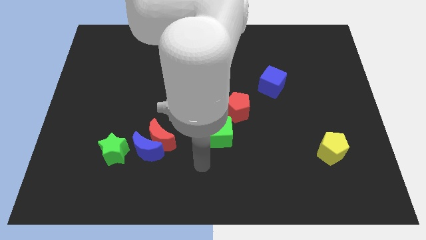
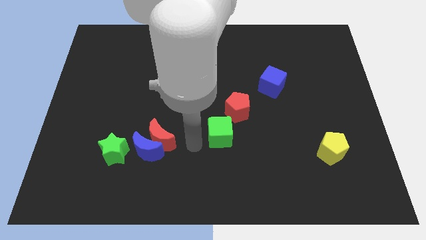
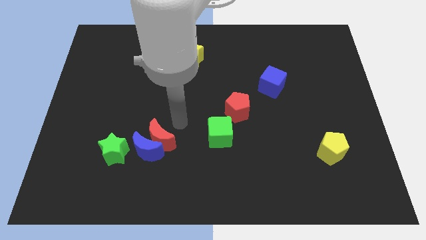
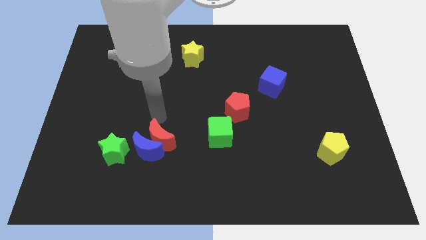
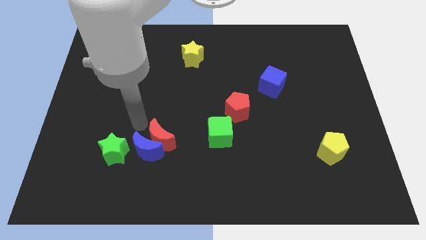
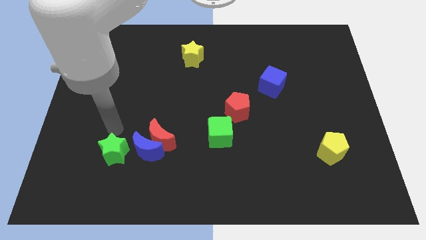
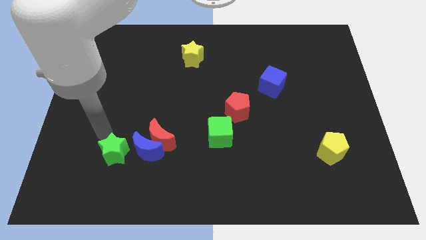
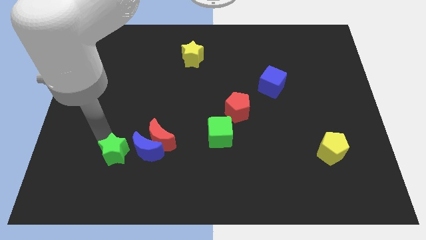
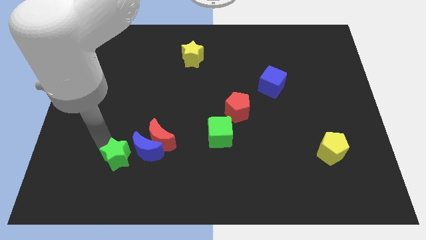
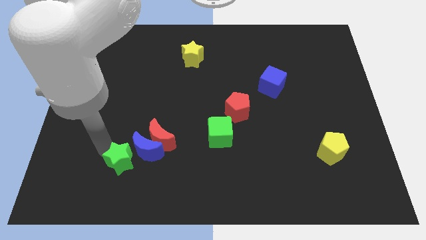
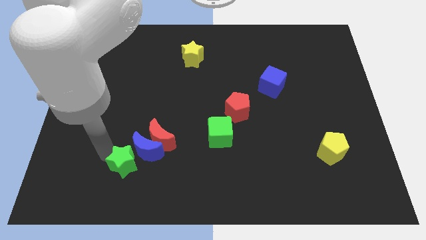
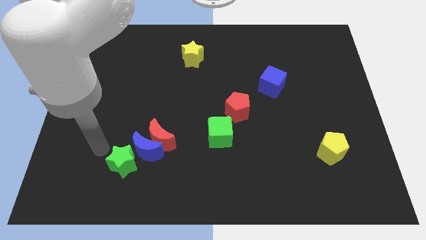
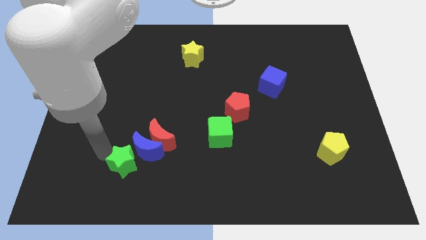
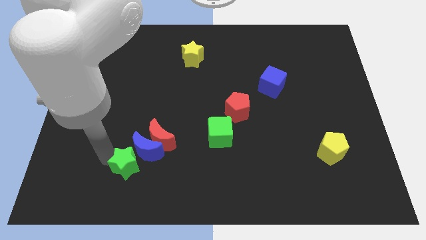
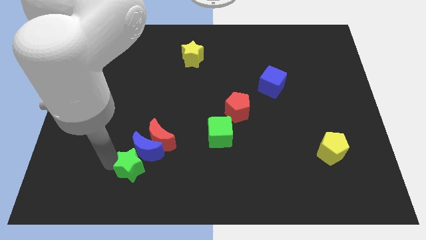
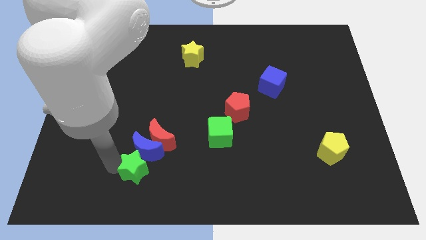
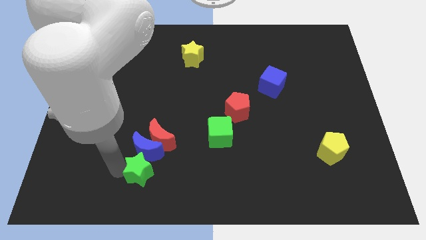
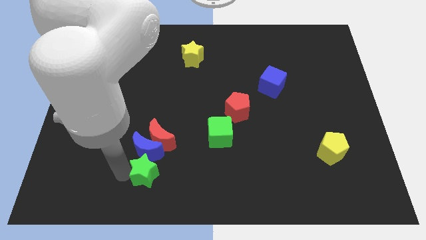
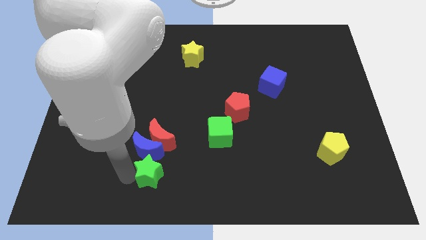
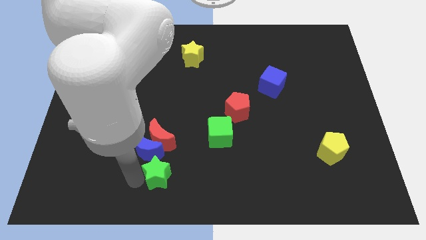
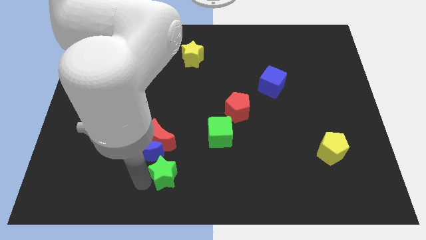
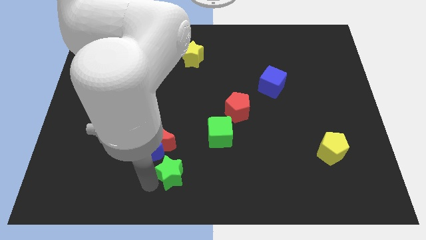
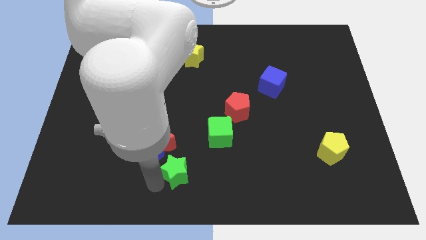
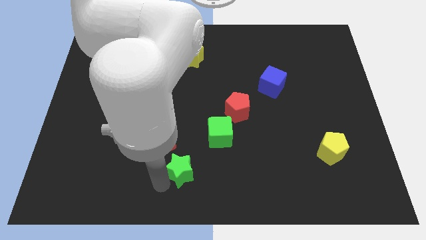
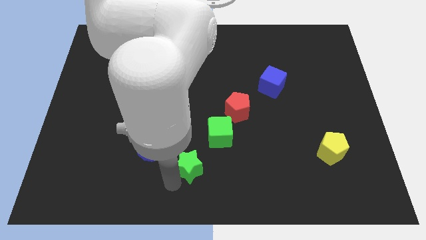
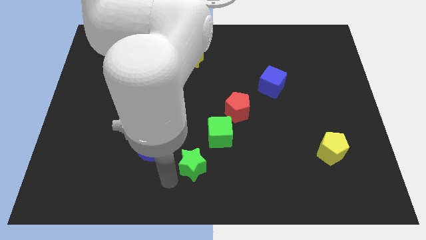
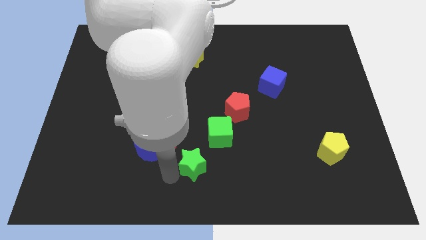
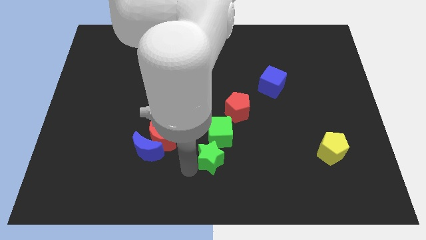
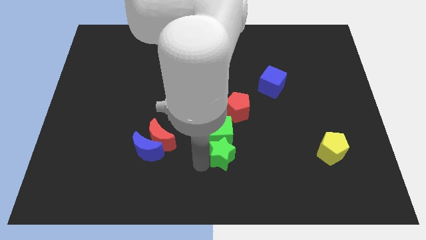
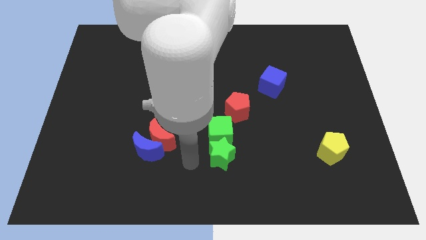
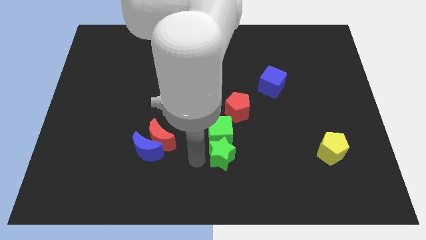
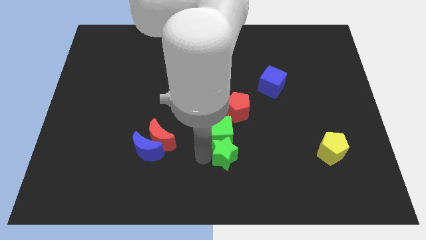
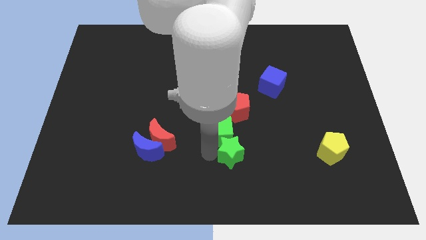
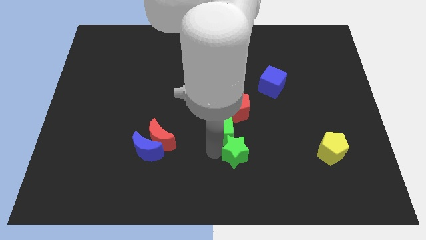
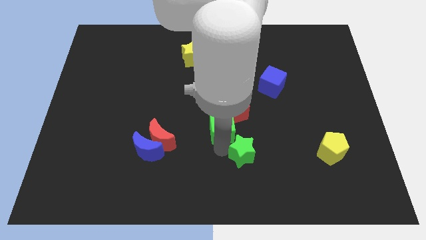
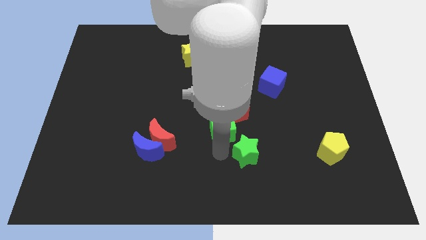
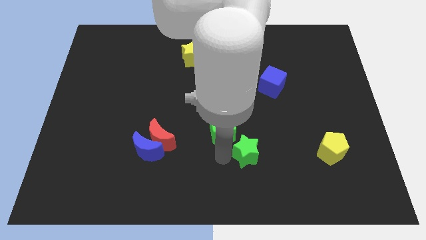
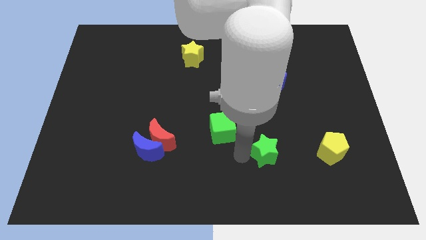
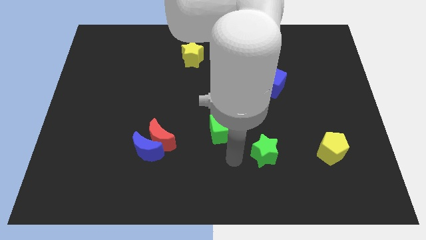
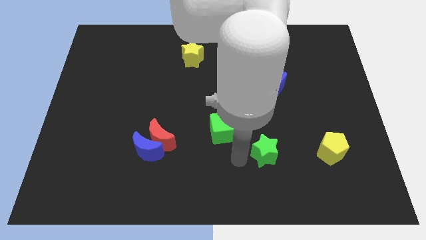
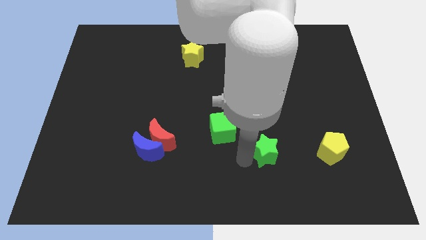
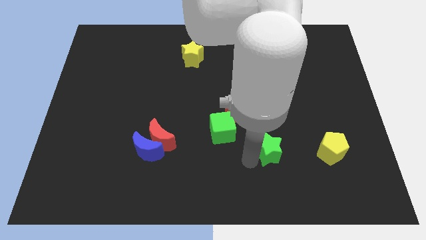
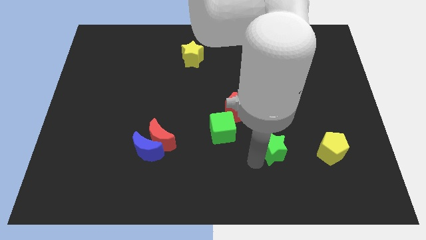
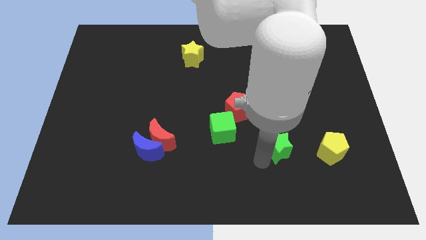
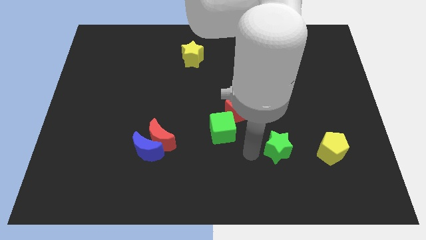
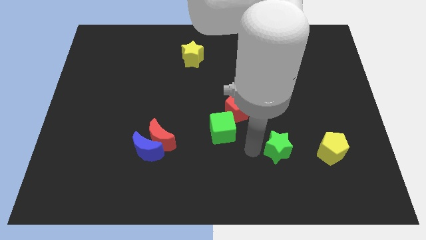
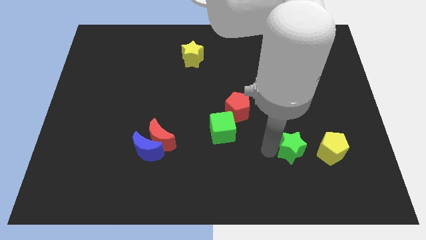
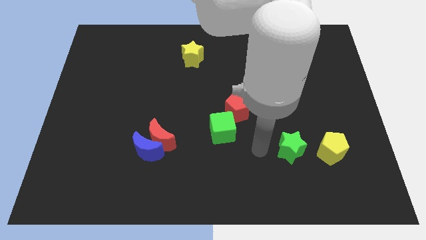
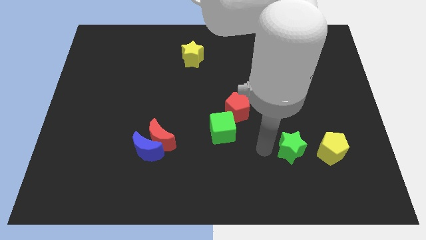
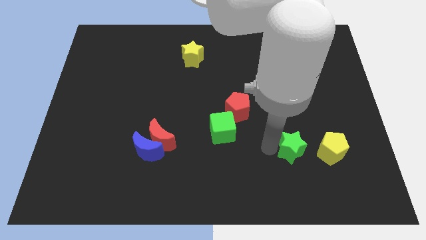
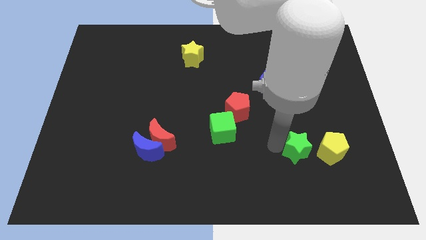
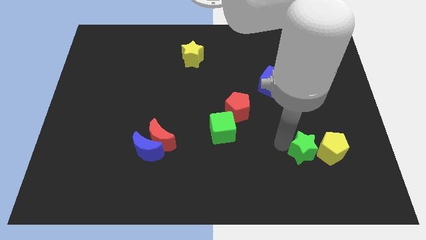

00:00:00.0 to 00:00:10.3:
put the green star close to the yellow pentagon

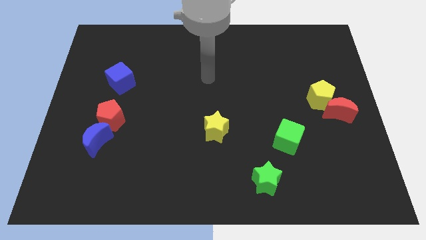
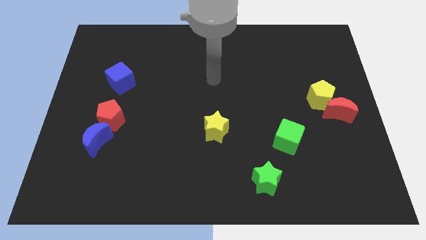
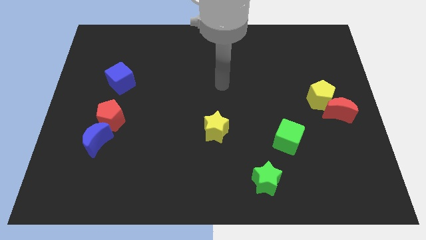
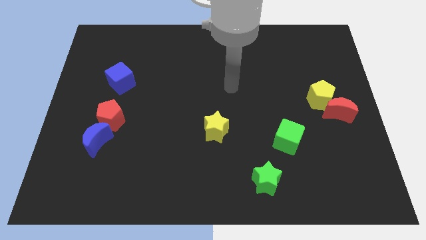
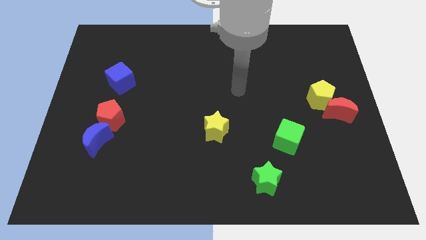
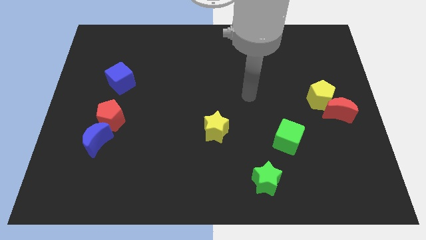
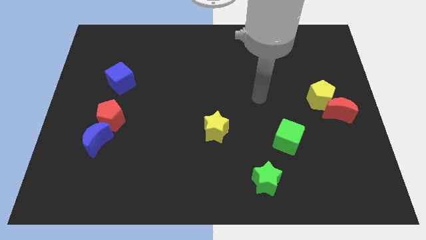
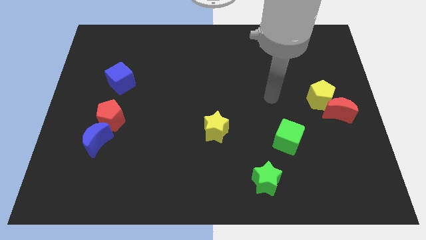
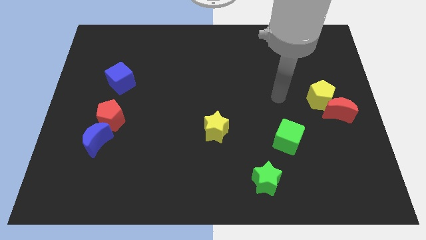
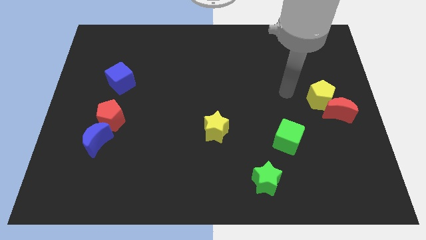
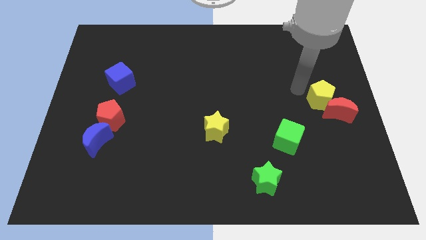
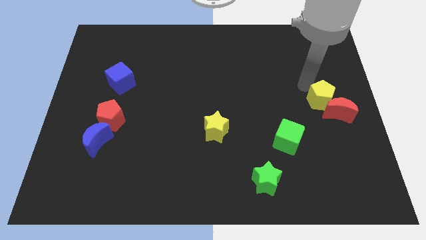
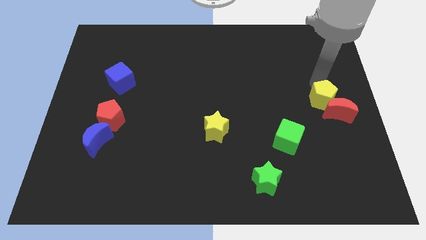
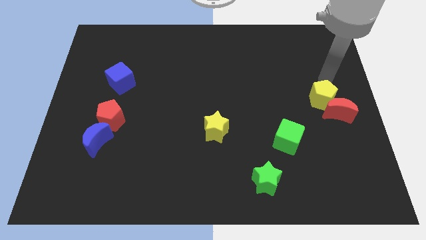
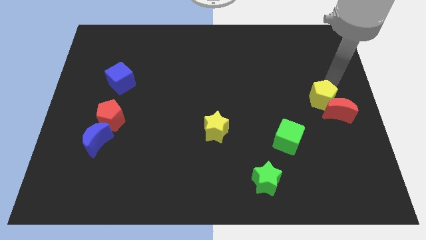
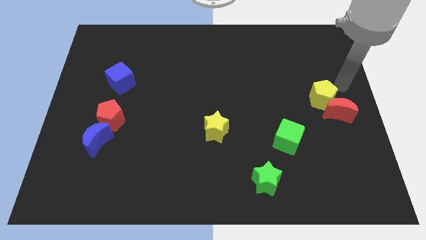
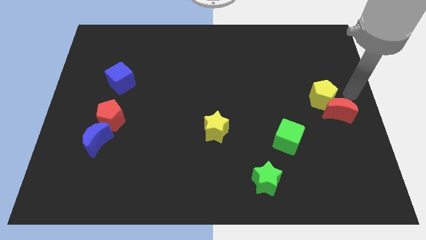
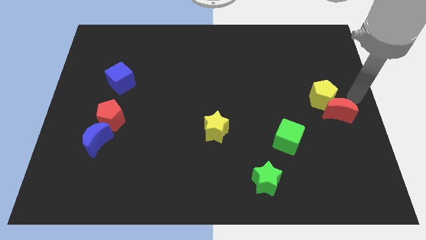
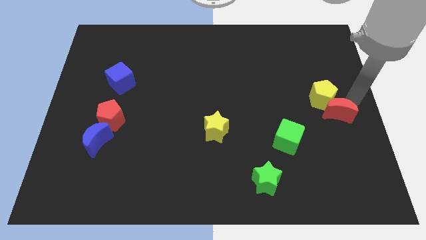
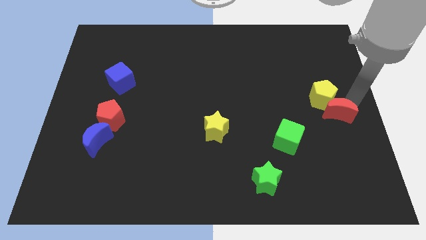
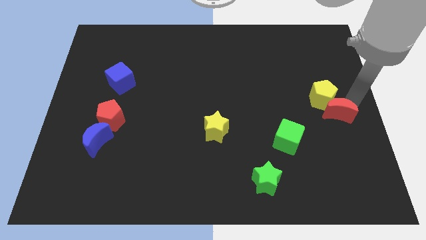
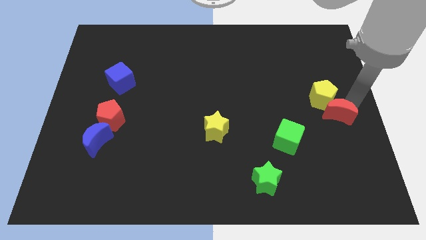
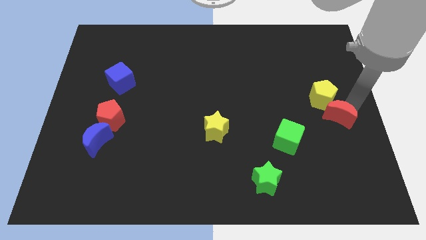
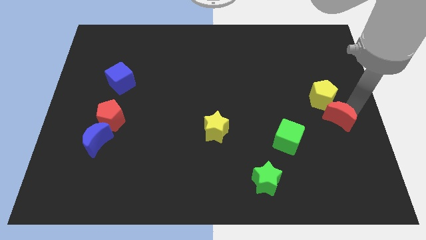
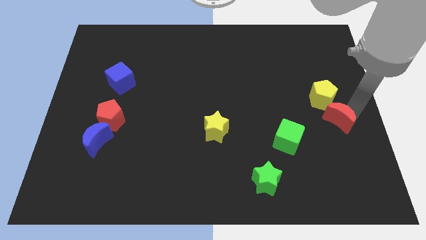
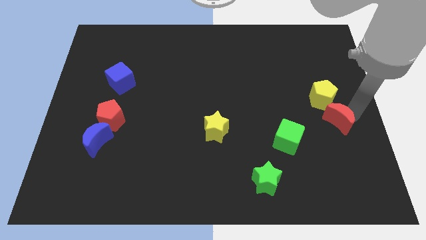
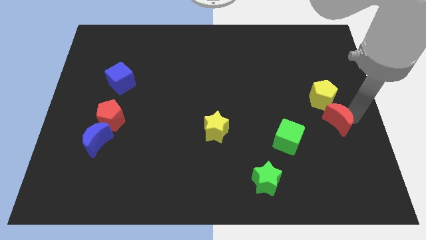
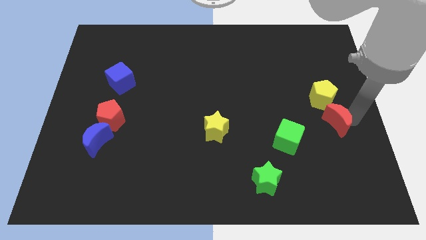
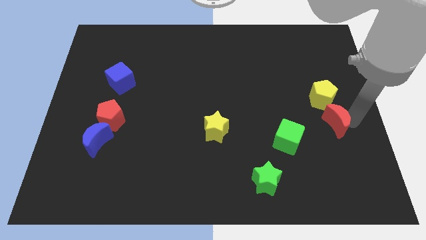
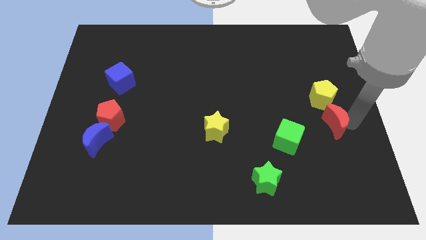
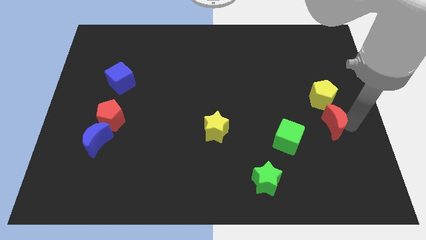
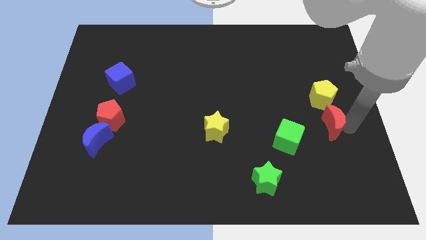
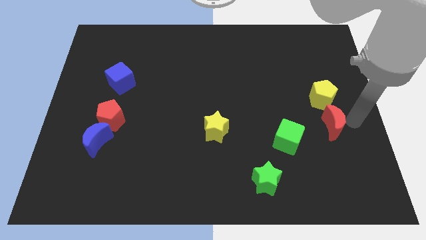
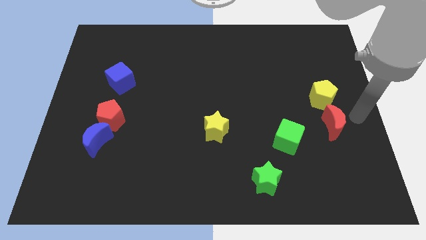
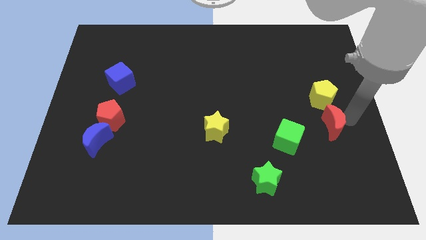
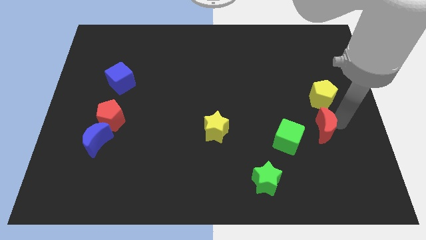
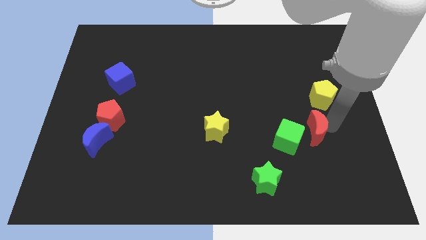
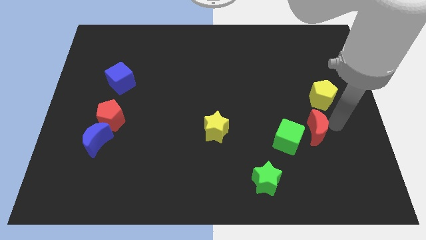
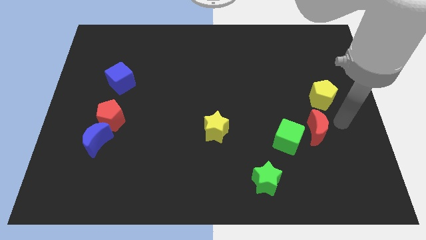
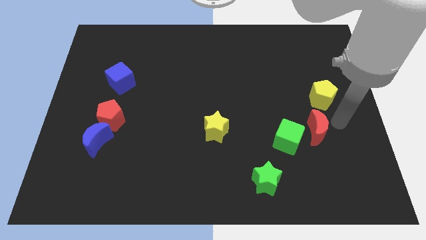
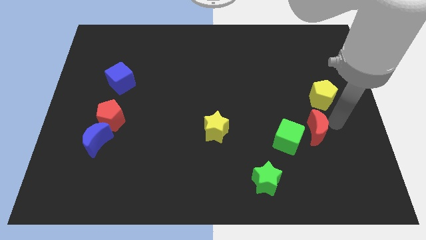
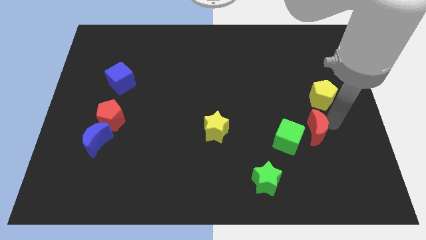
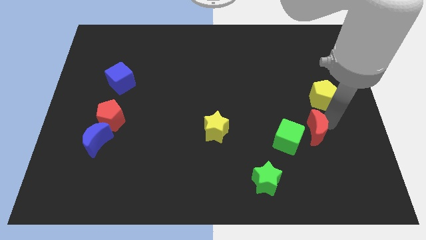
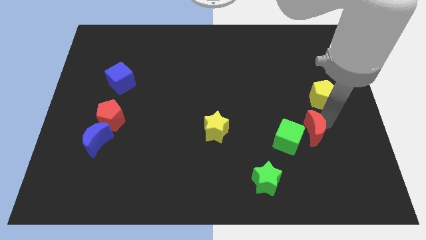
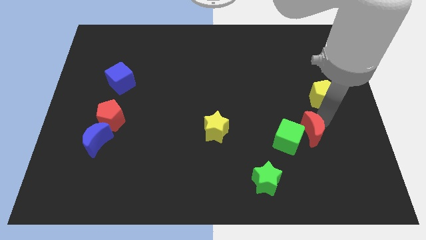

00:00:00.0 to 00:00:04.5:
put the red moon next to the green cube
